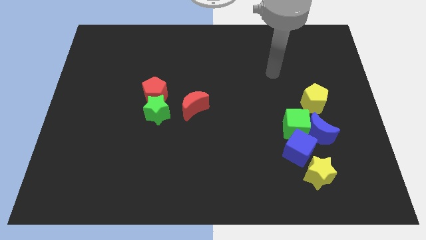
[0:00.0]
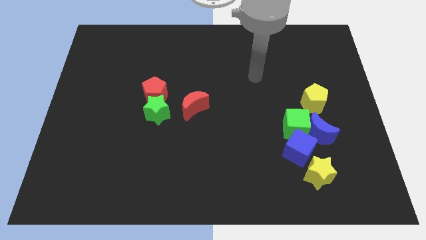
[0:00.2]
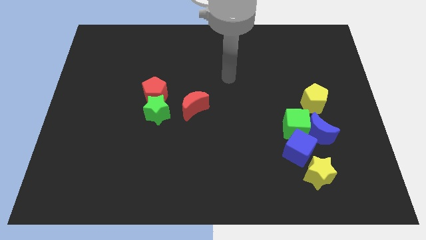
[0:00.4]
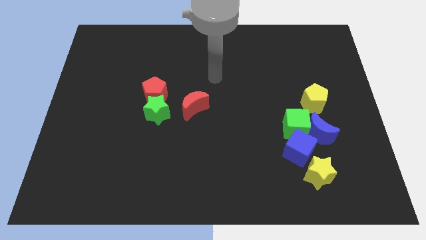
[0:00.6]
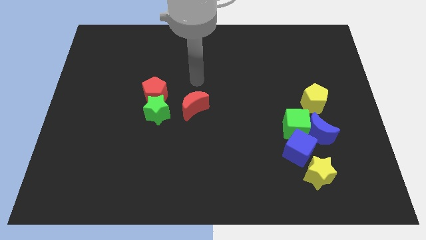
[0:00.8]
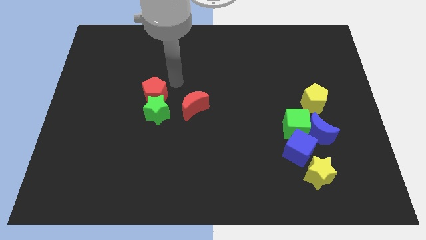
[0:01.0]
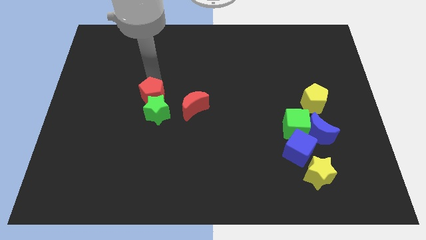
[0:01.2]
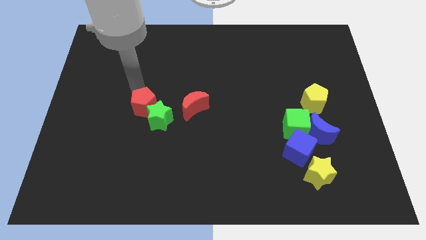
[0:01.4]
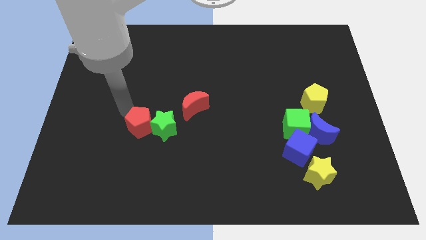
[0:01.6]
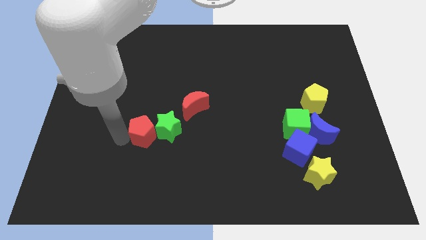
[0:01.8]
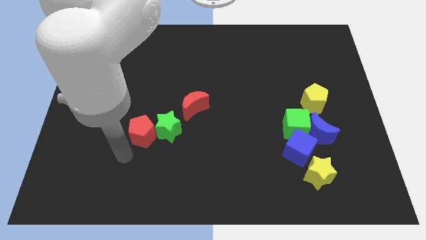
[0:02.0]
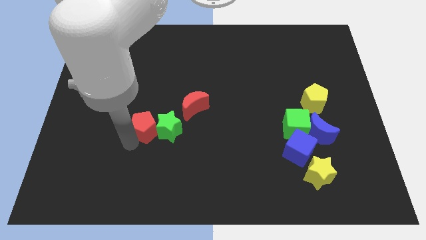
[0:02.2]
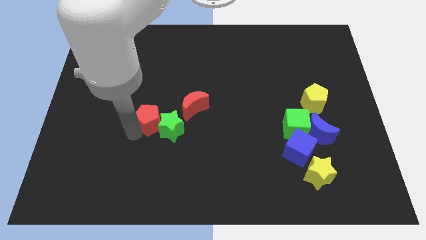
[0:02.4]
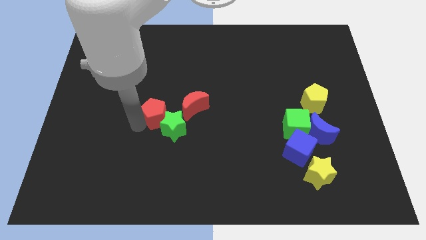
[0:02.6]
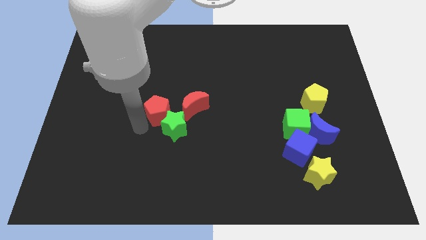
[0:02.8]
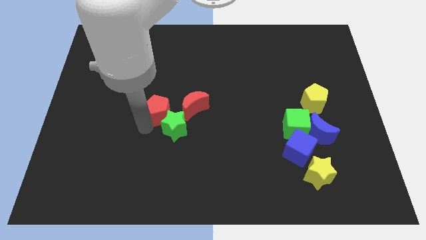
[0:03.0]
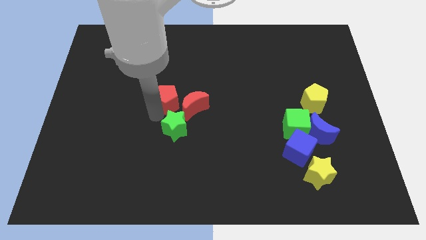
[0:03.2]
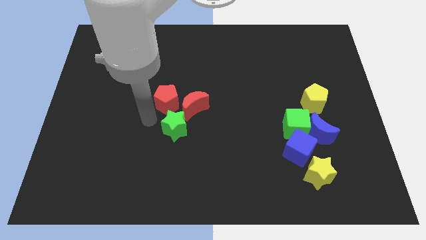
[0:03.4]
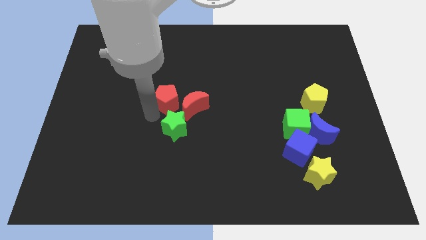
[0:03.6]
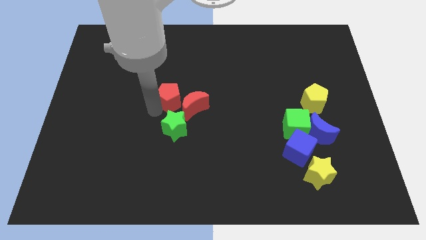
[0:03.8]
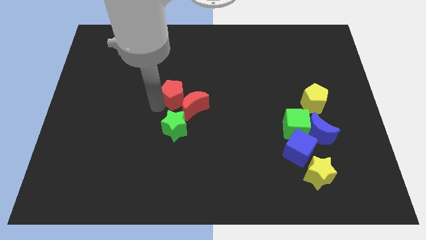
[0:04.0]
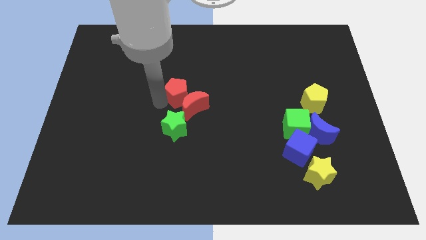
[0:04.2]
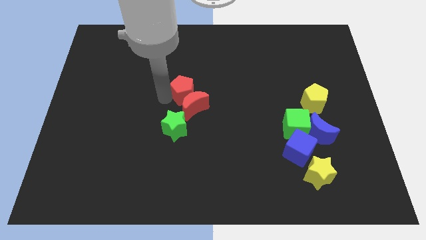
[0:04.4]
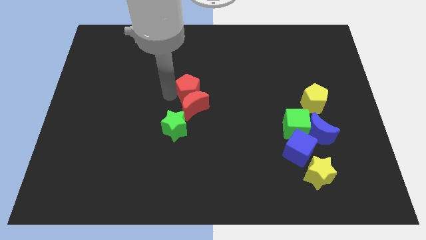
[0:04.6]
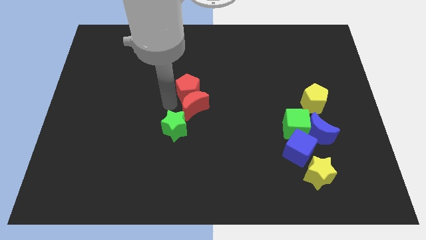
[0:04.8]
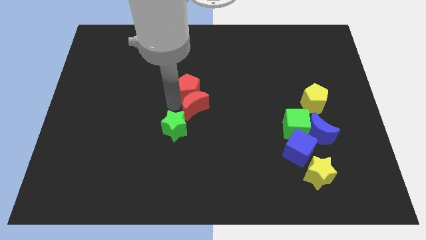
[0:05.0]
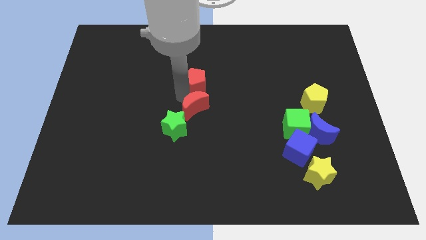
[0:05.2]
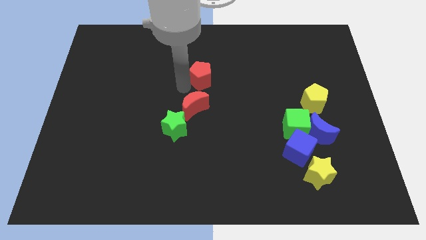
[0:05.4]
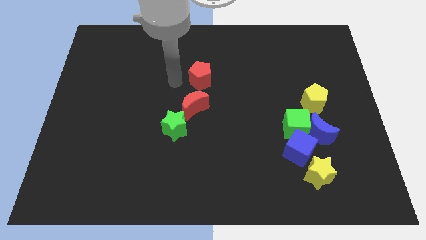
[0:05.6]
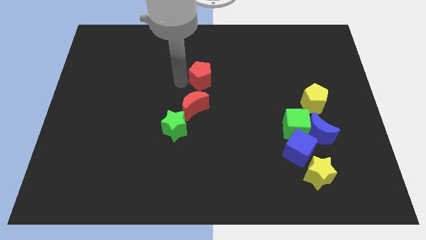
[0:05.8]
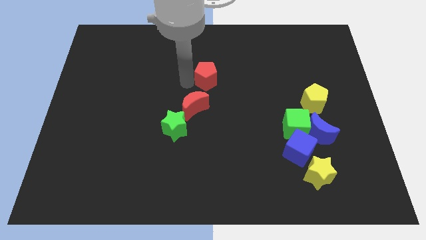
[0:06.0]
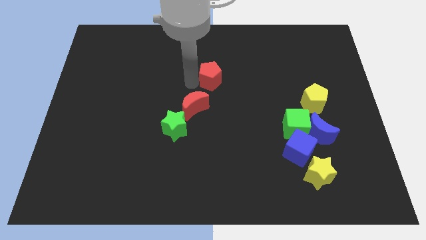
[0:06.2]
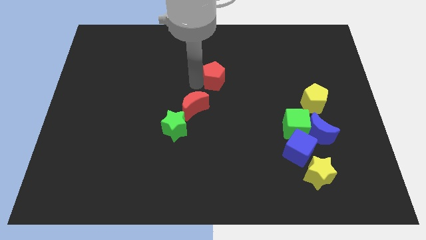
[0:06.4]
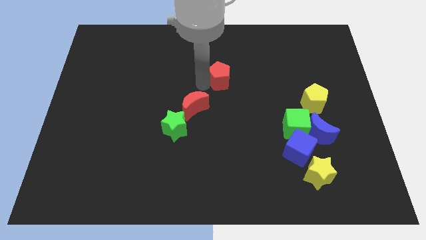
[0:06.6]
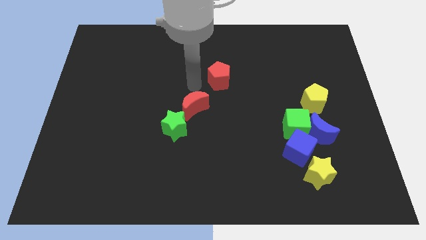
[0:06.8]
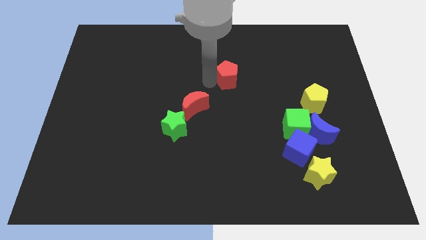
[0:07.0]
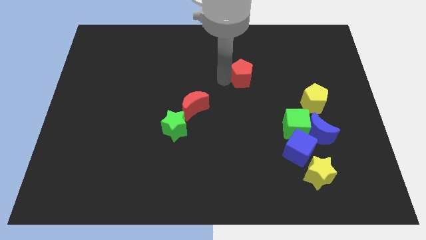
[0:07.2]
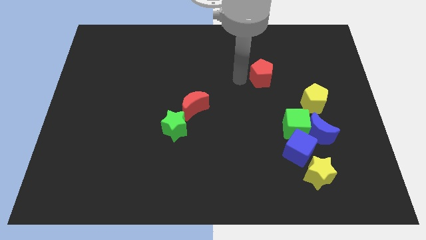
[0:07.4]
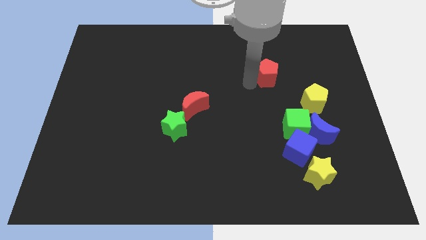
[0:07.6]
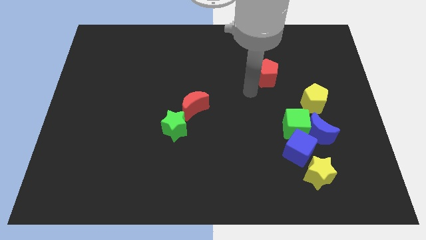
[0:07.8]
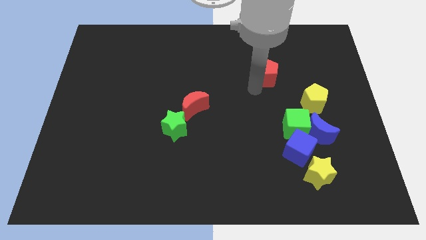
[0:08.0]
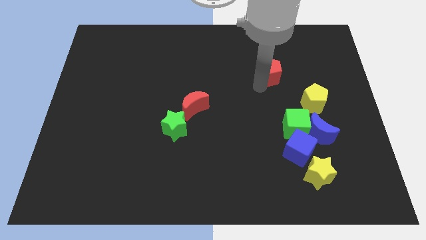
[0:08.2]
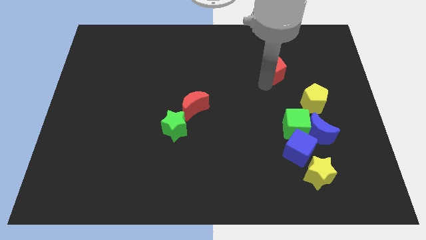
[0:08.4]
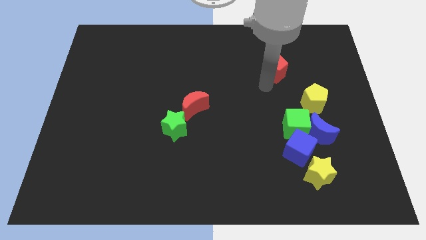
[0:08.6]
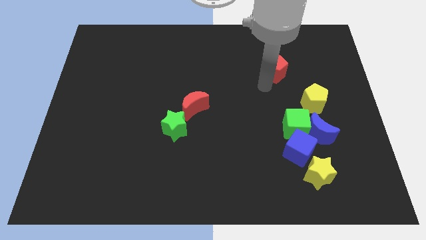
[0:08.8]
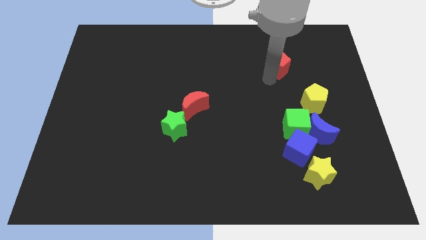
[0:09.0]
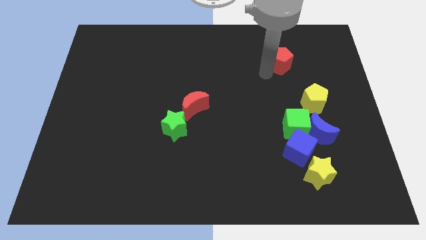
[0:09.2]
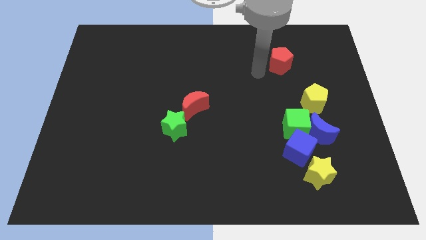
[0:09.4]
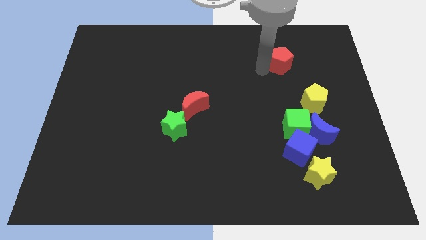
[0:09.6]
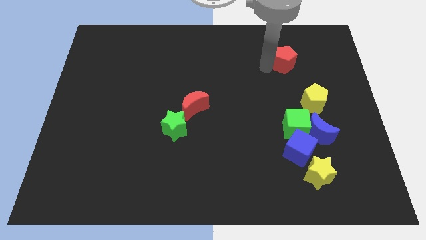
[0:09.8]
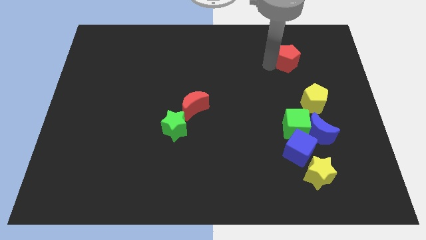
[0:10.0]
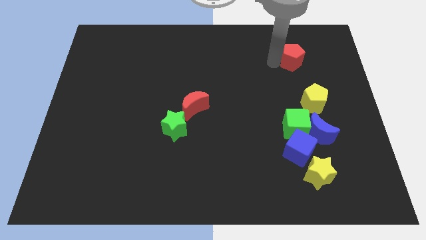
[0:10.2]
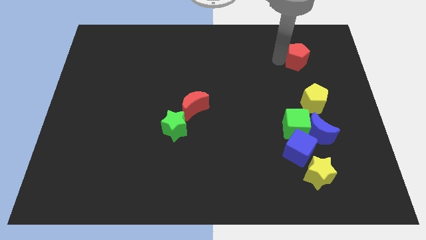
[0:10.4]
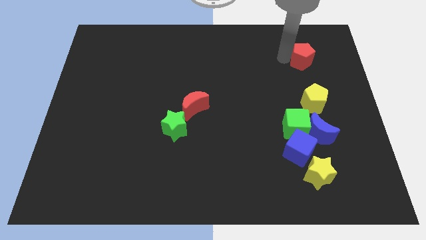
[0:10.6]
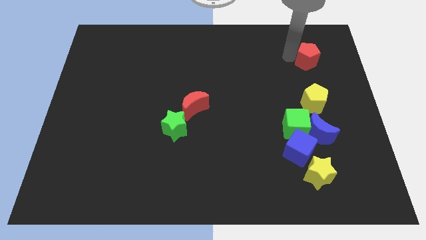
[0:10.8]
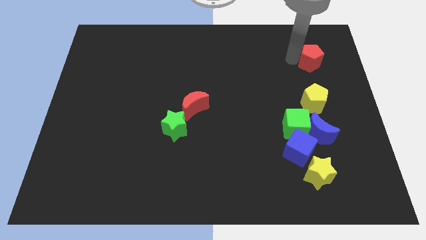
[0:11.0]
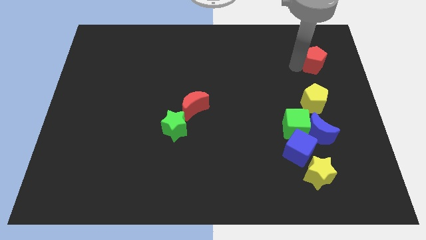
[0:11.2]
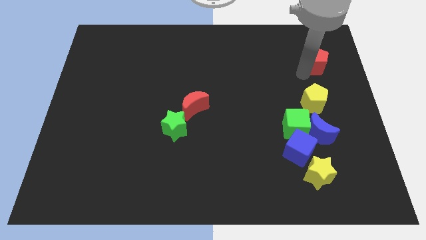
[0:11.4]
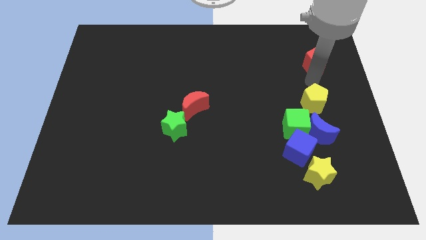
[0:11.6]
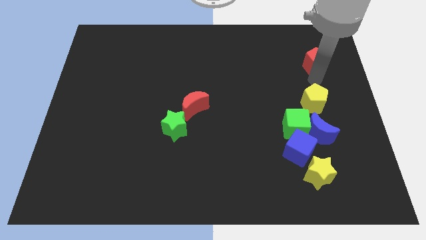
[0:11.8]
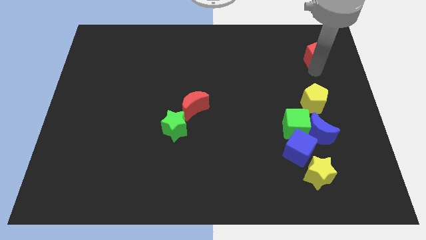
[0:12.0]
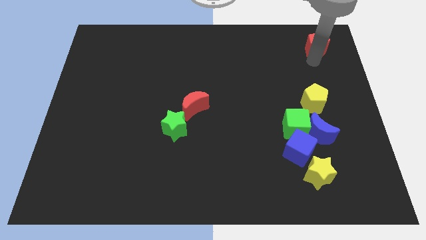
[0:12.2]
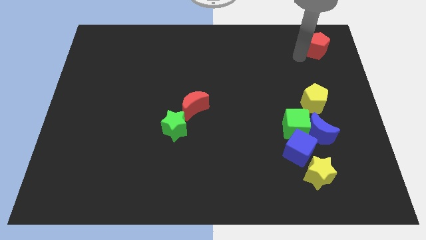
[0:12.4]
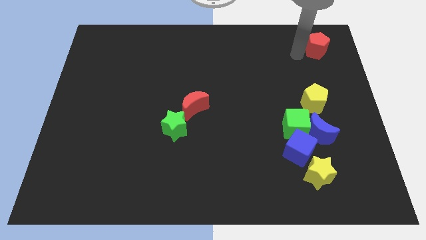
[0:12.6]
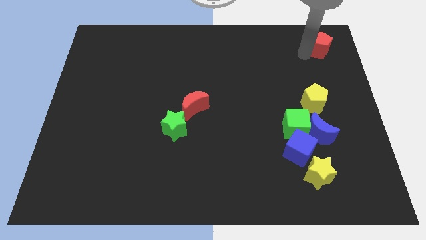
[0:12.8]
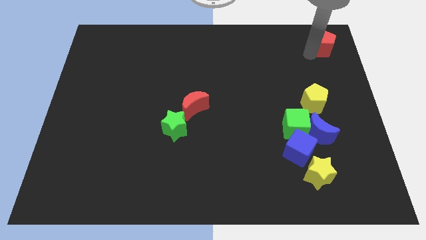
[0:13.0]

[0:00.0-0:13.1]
slide the red pentagon to the upper right corner

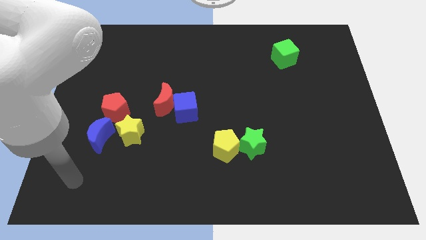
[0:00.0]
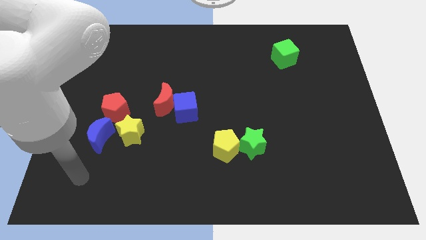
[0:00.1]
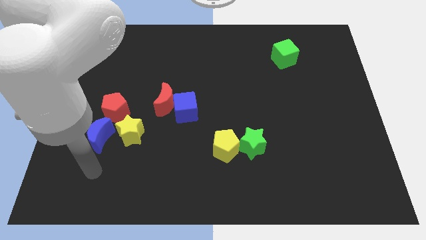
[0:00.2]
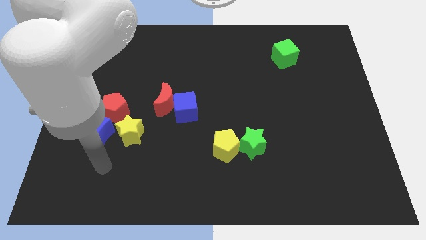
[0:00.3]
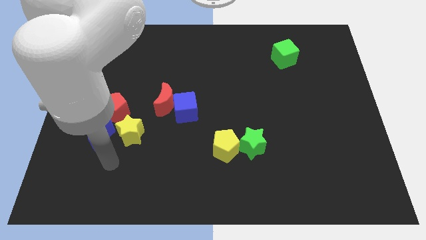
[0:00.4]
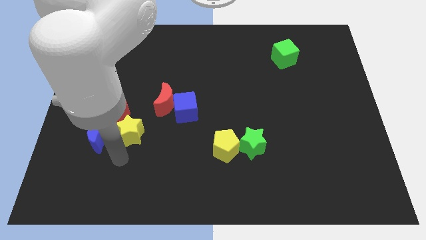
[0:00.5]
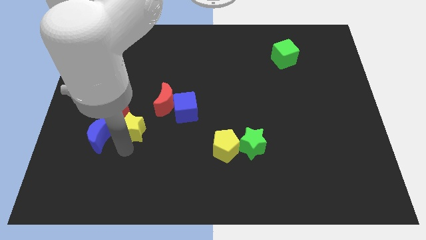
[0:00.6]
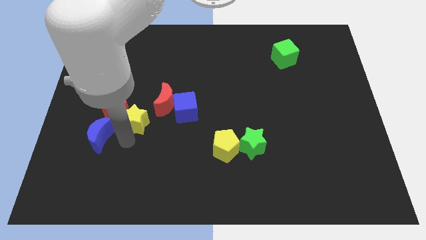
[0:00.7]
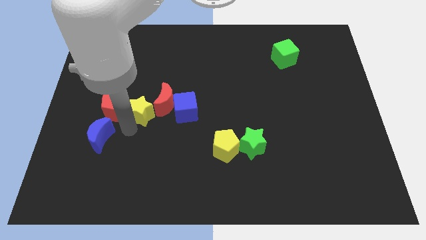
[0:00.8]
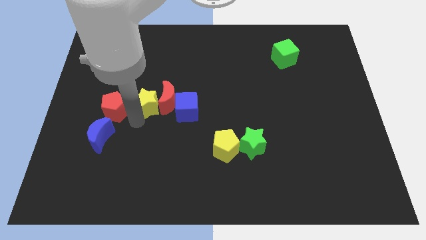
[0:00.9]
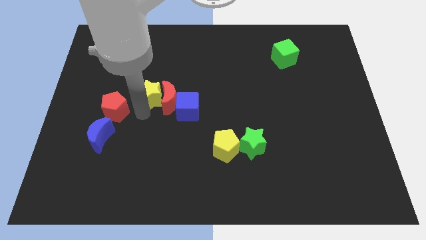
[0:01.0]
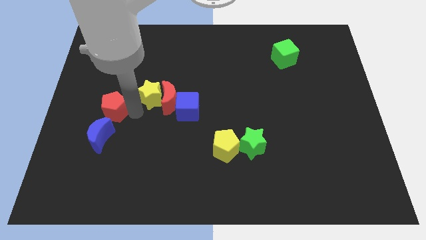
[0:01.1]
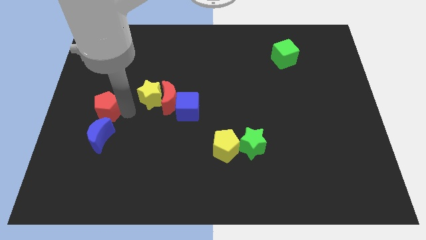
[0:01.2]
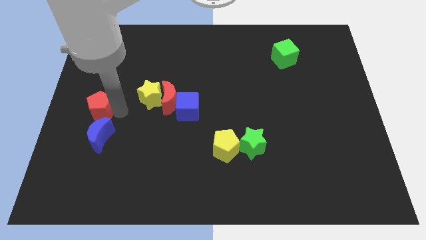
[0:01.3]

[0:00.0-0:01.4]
push the red pentagon to the left side
